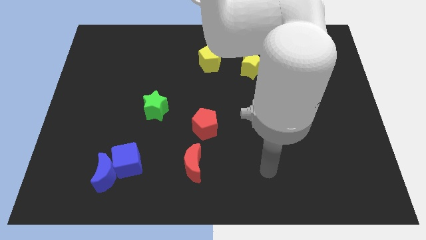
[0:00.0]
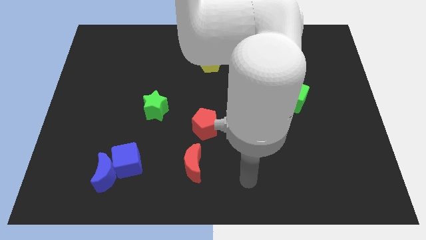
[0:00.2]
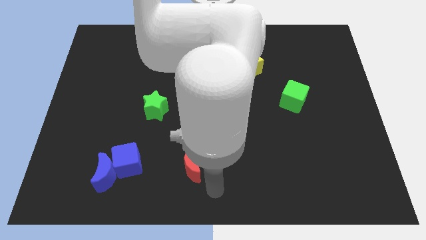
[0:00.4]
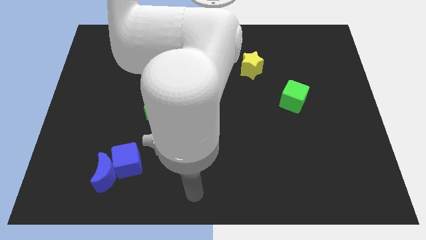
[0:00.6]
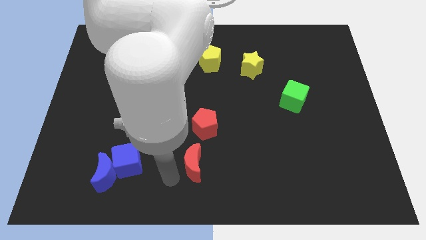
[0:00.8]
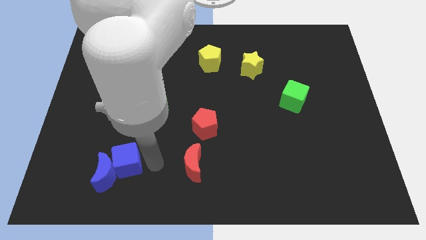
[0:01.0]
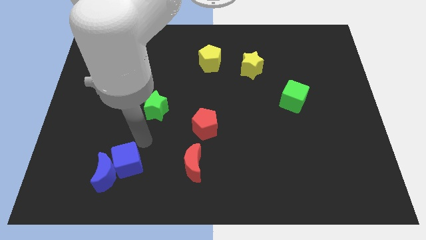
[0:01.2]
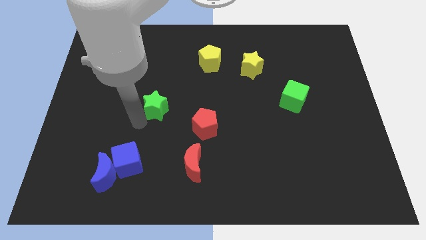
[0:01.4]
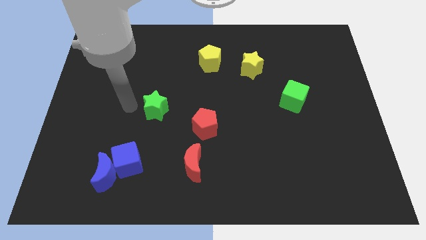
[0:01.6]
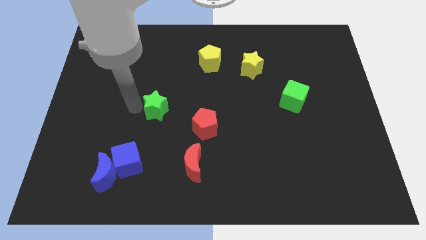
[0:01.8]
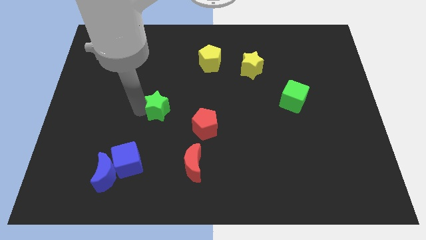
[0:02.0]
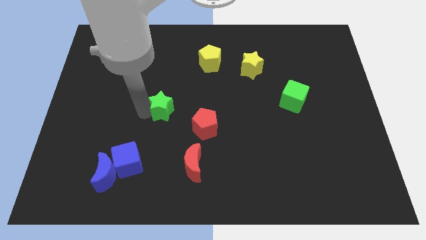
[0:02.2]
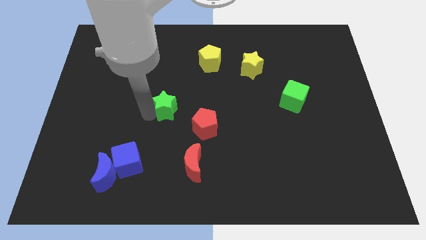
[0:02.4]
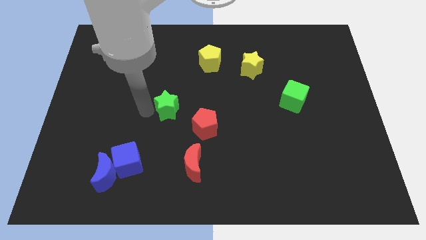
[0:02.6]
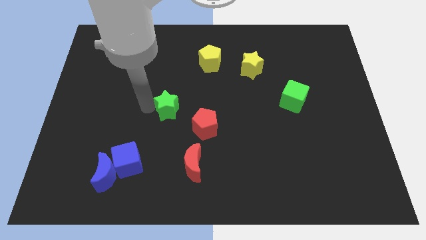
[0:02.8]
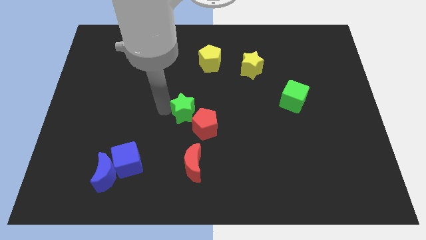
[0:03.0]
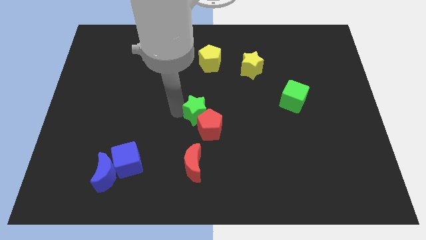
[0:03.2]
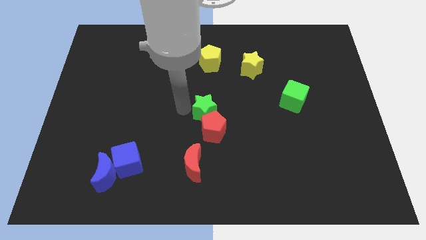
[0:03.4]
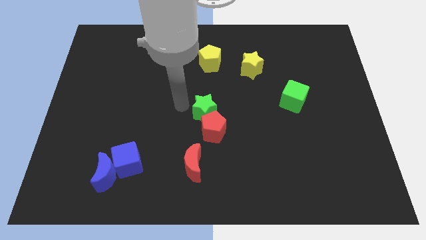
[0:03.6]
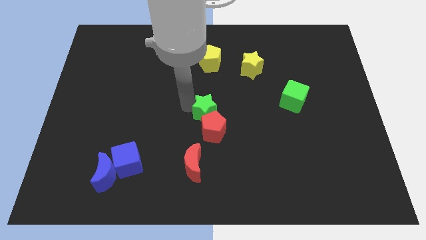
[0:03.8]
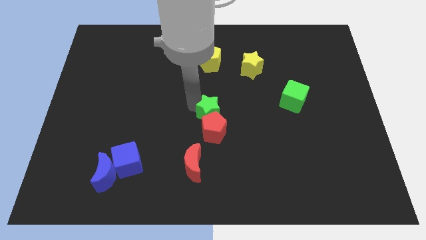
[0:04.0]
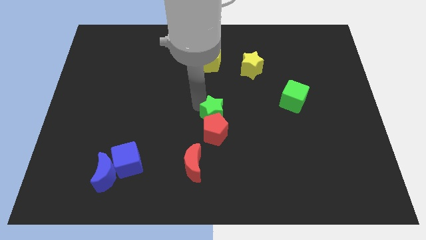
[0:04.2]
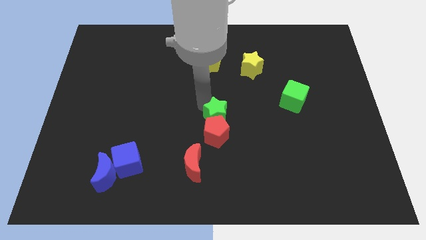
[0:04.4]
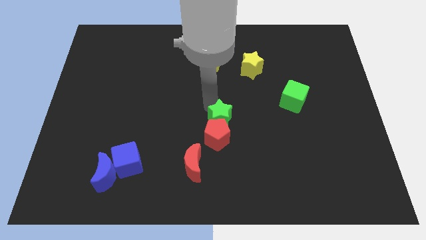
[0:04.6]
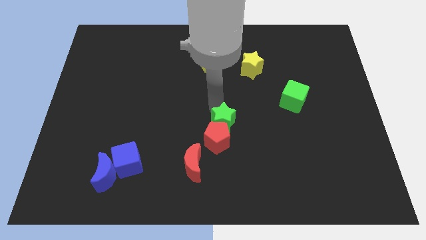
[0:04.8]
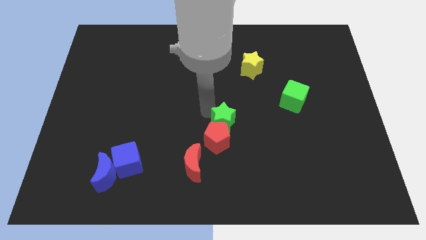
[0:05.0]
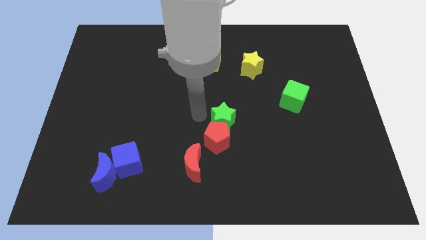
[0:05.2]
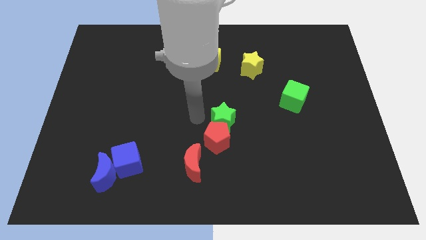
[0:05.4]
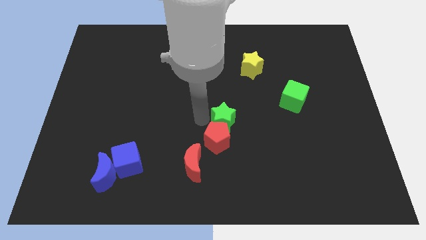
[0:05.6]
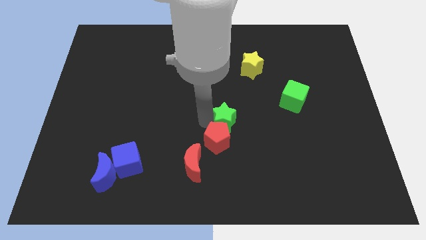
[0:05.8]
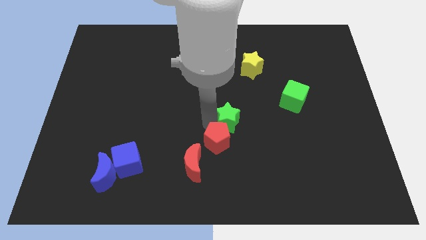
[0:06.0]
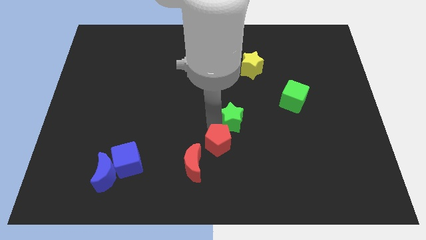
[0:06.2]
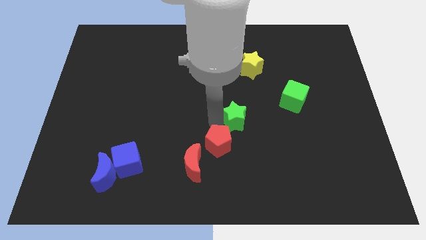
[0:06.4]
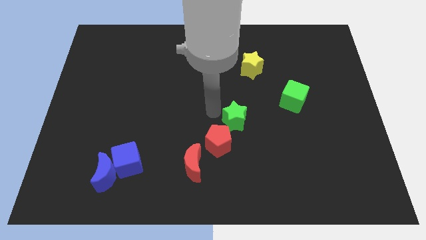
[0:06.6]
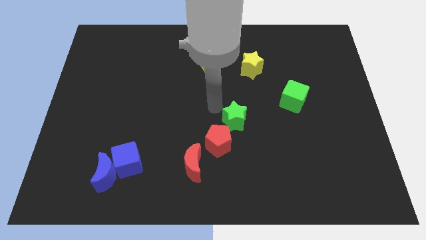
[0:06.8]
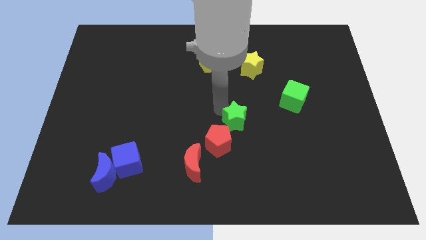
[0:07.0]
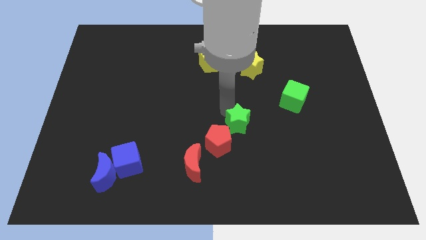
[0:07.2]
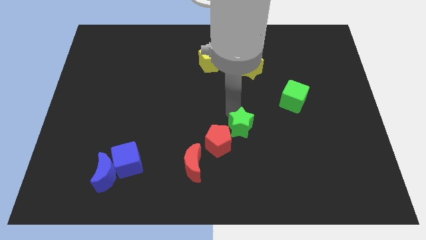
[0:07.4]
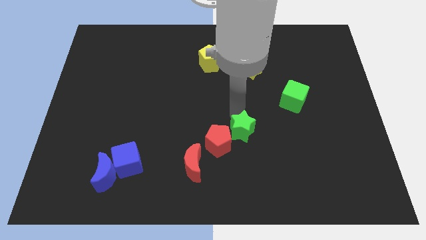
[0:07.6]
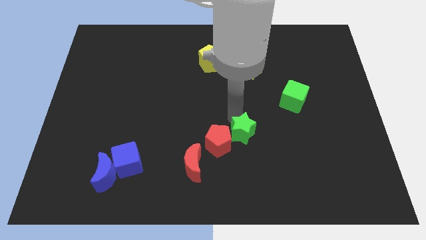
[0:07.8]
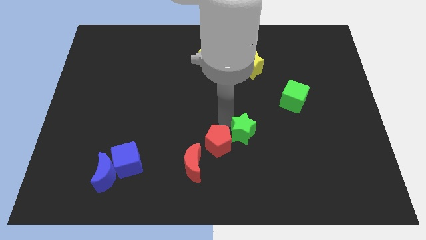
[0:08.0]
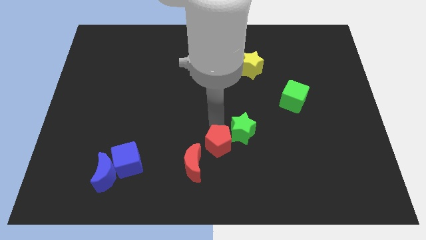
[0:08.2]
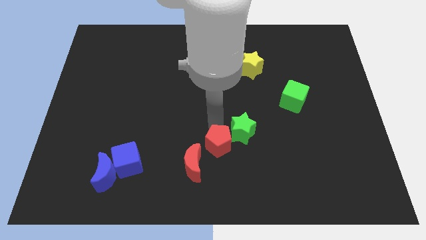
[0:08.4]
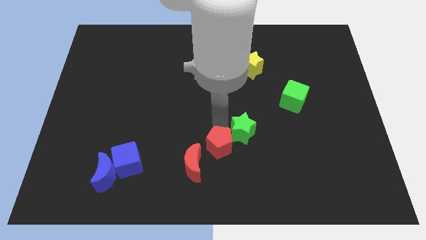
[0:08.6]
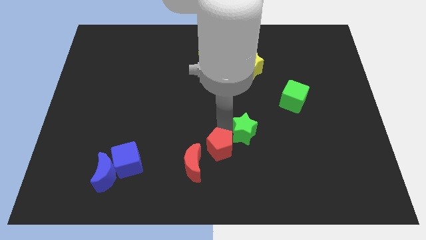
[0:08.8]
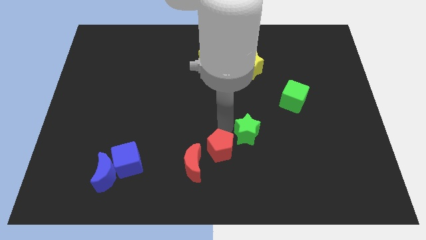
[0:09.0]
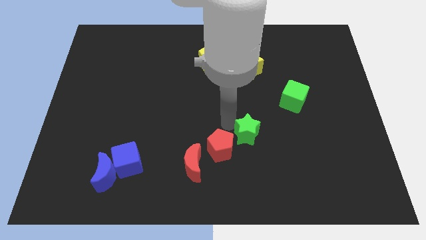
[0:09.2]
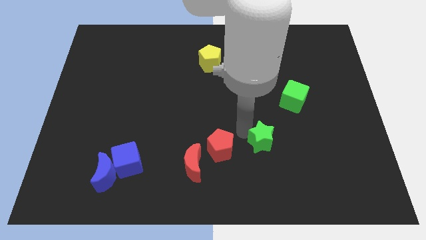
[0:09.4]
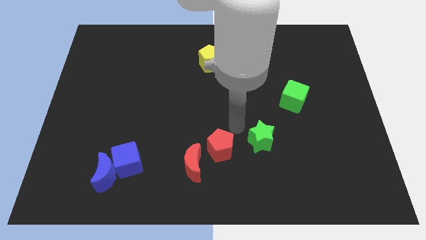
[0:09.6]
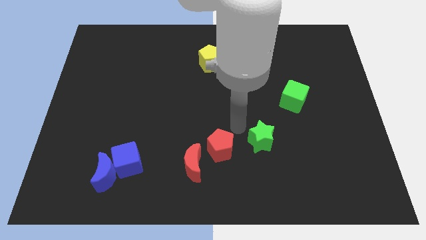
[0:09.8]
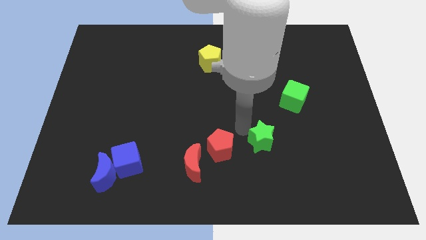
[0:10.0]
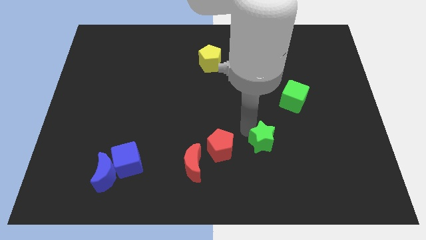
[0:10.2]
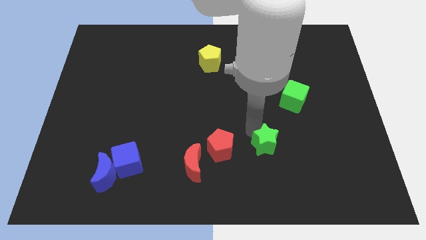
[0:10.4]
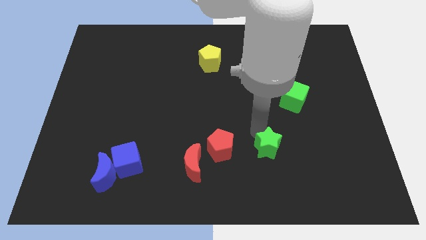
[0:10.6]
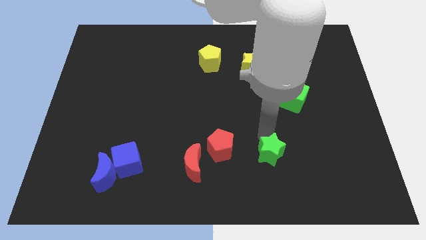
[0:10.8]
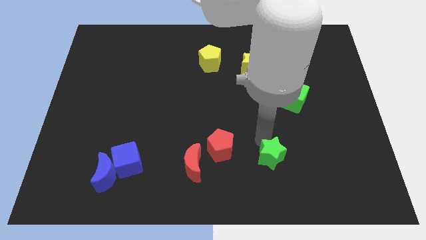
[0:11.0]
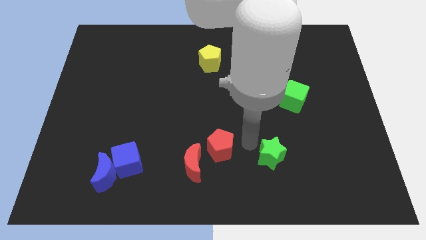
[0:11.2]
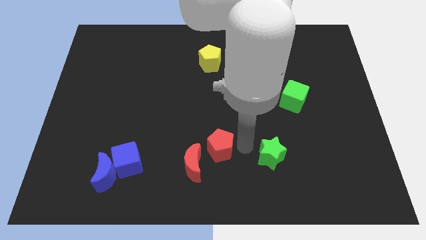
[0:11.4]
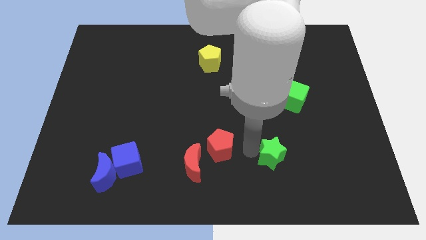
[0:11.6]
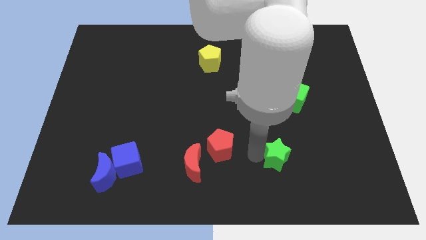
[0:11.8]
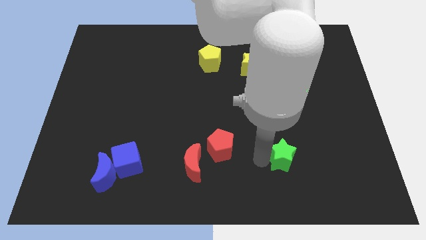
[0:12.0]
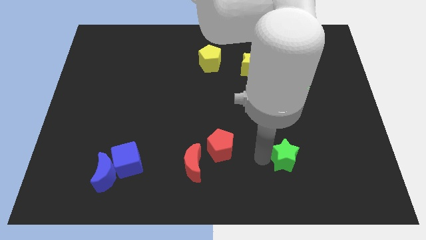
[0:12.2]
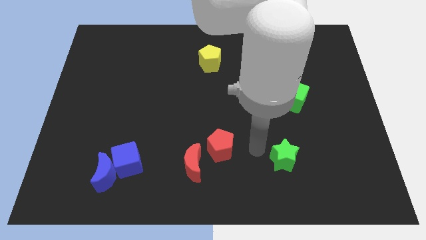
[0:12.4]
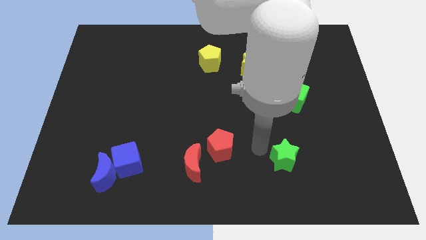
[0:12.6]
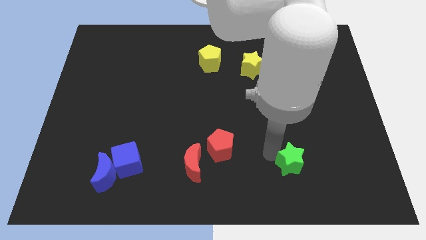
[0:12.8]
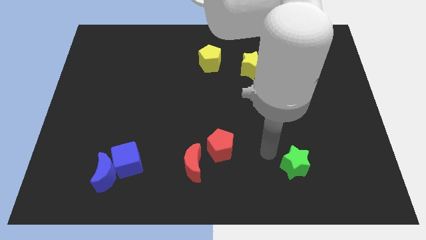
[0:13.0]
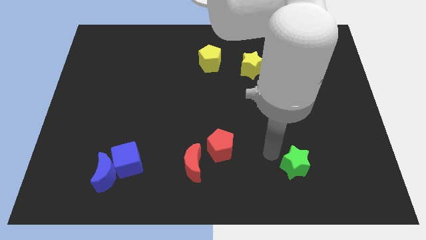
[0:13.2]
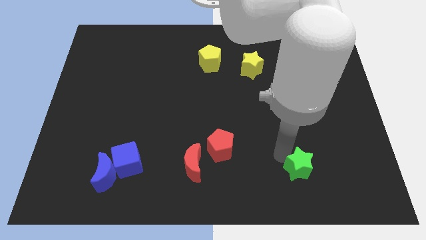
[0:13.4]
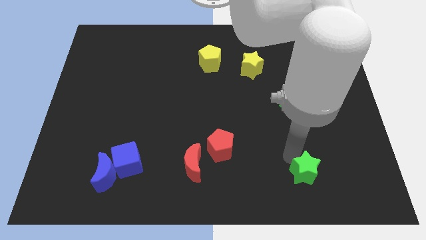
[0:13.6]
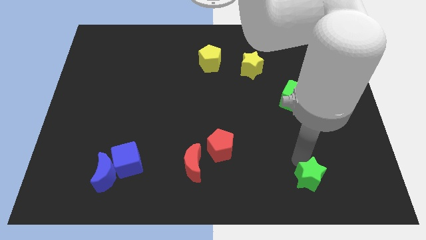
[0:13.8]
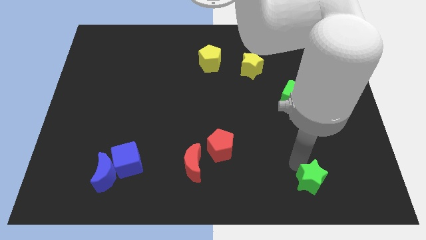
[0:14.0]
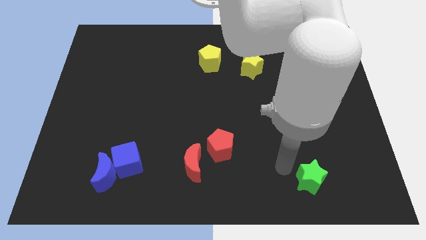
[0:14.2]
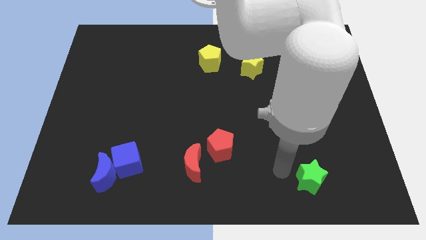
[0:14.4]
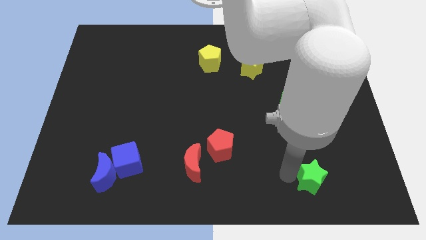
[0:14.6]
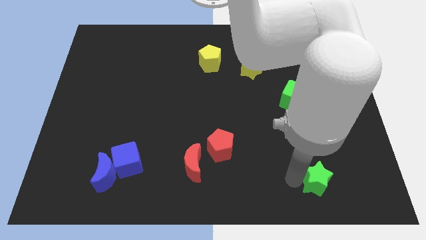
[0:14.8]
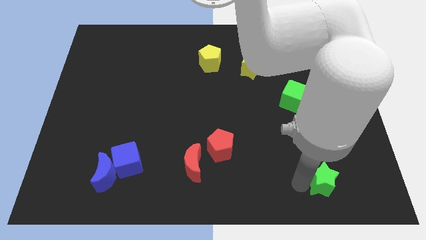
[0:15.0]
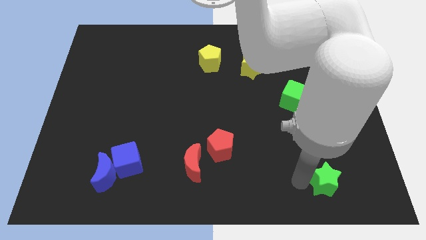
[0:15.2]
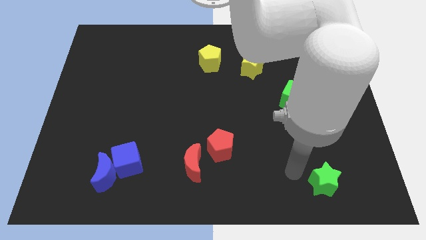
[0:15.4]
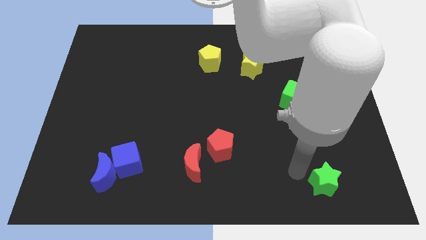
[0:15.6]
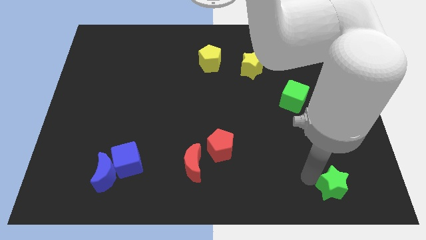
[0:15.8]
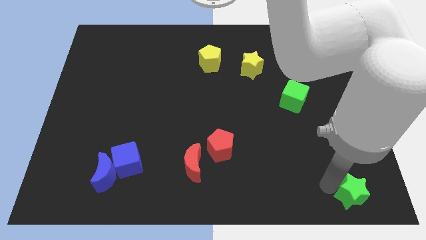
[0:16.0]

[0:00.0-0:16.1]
move the green star to the bottom right of the board

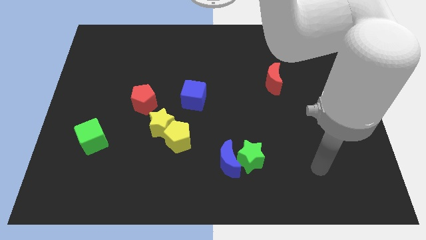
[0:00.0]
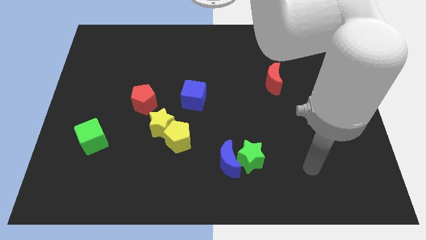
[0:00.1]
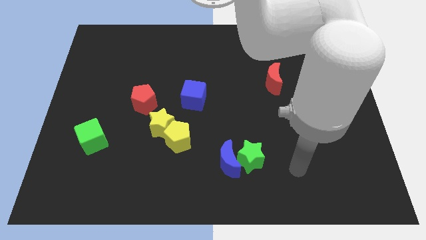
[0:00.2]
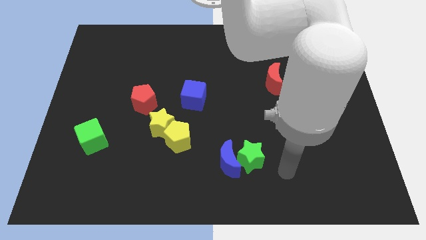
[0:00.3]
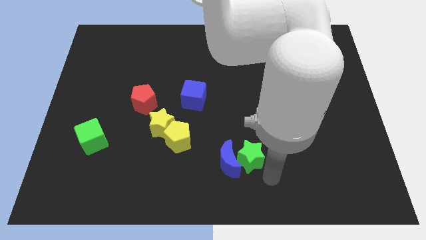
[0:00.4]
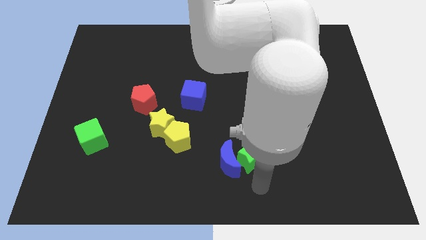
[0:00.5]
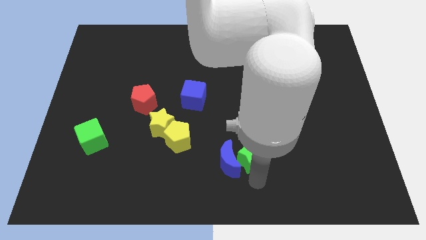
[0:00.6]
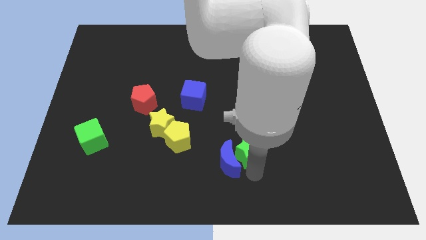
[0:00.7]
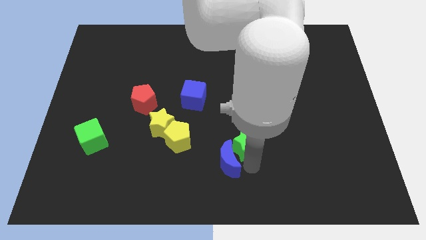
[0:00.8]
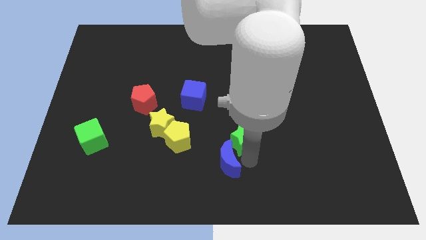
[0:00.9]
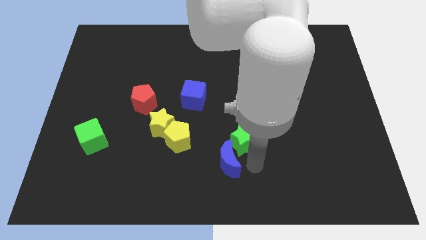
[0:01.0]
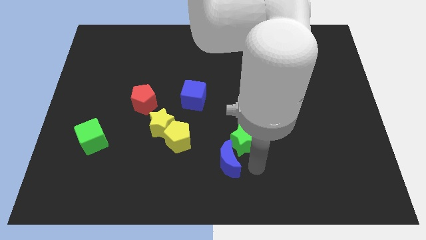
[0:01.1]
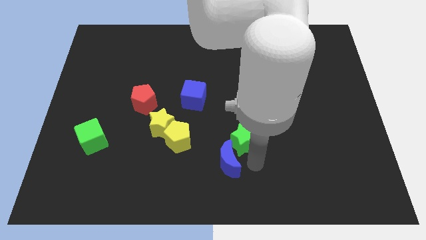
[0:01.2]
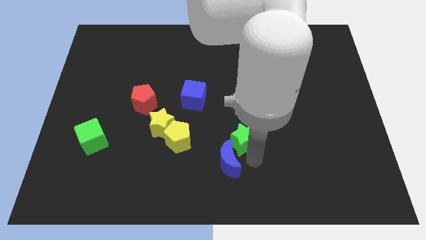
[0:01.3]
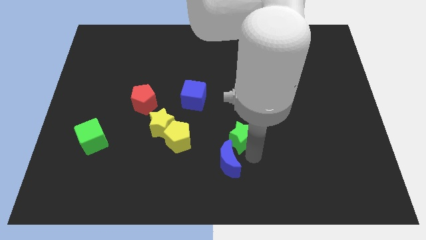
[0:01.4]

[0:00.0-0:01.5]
move the green star to the center
